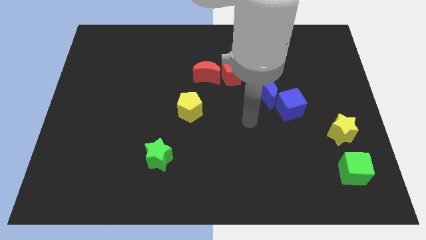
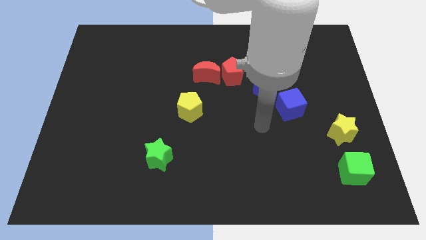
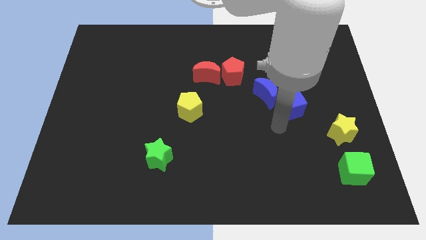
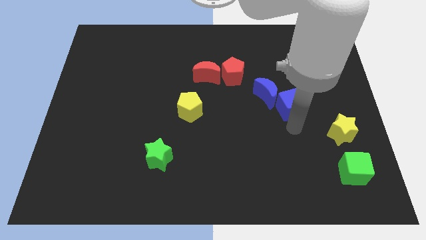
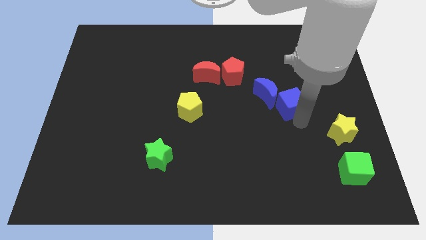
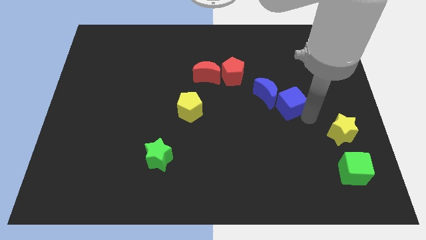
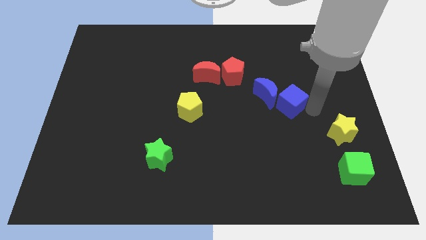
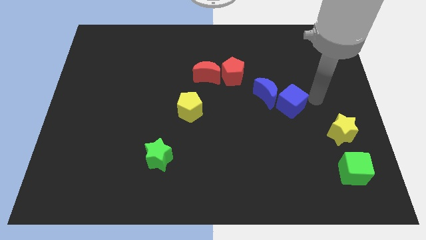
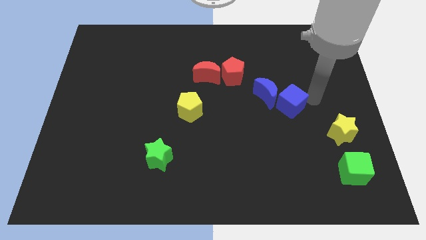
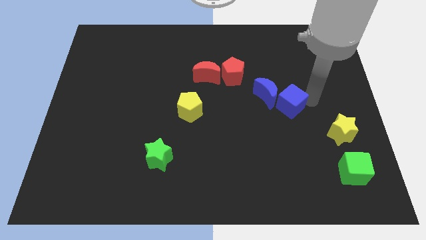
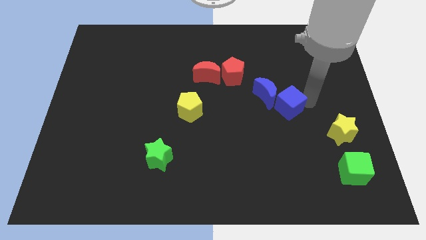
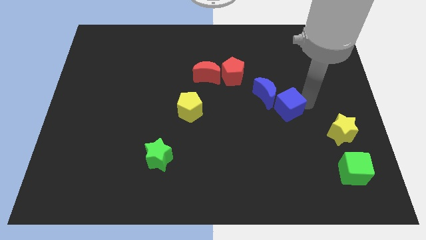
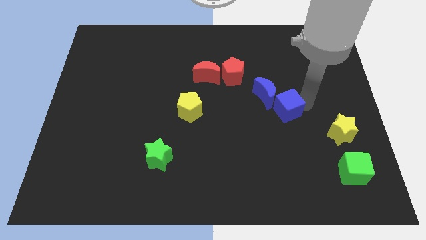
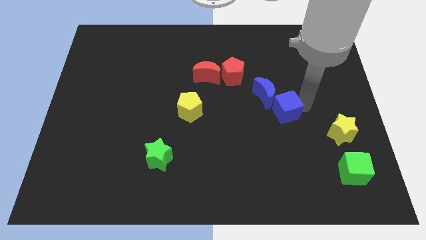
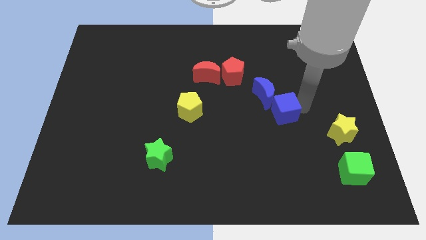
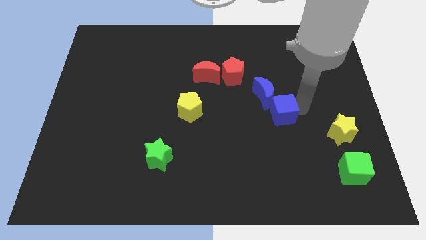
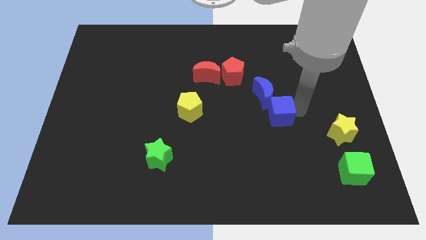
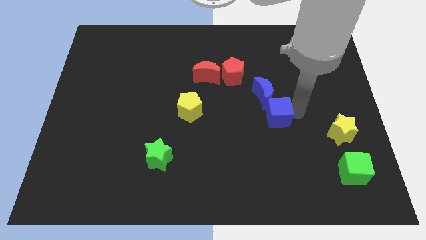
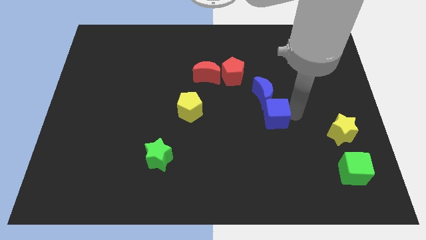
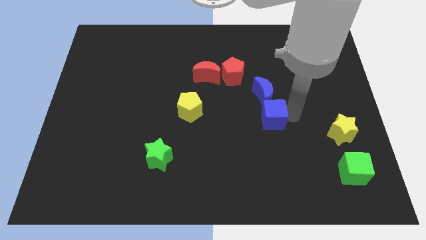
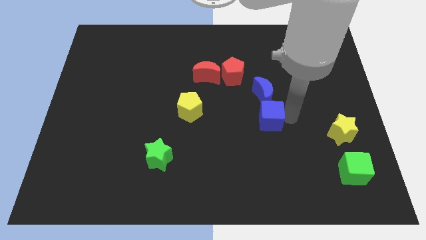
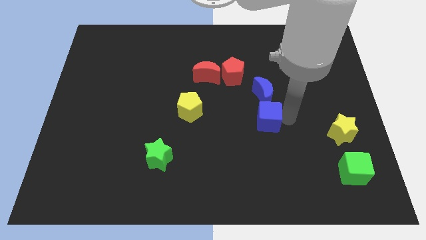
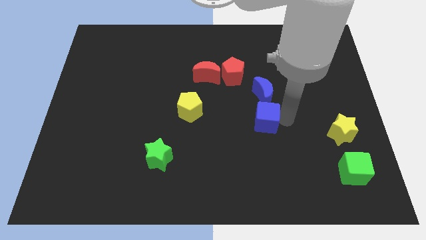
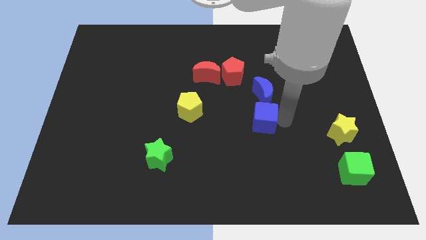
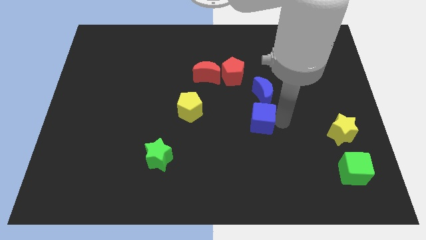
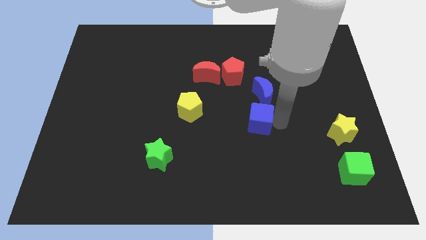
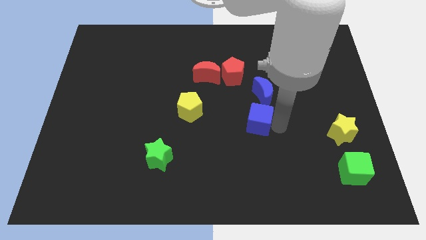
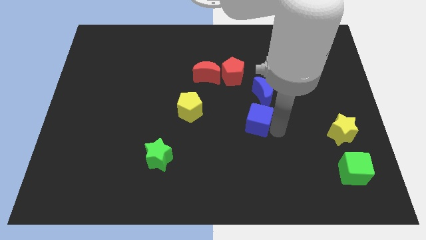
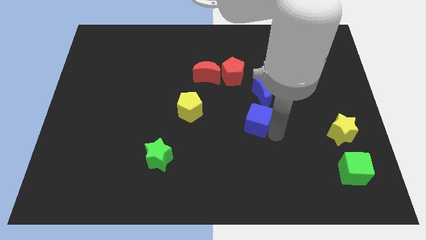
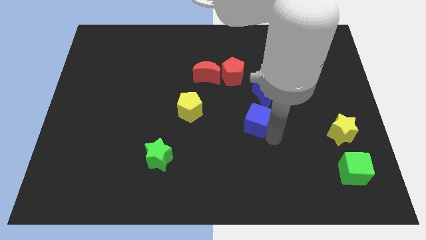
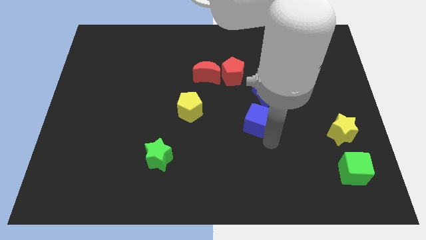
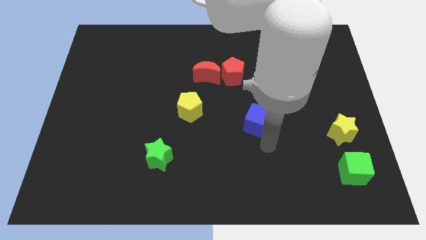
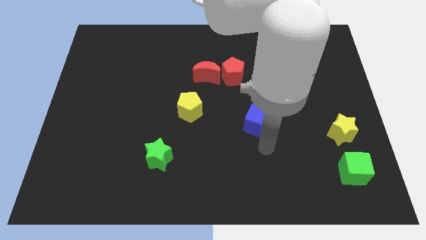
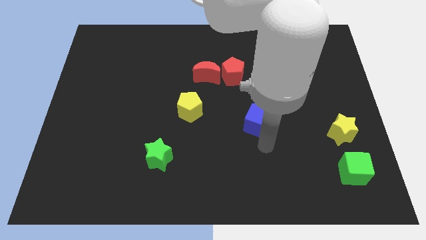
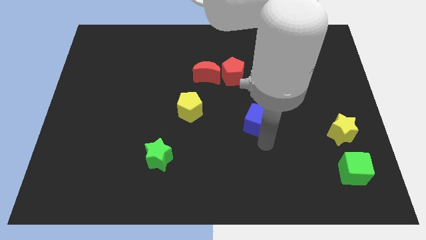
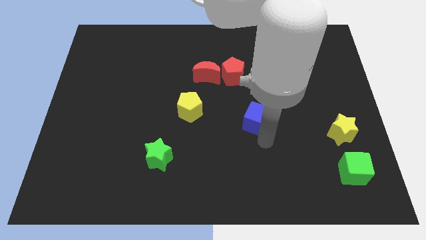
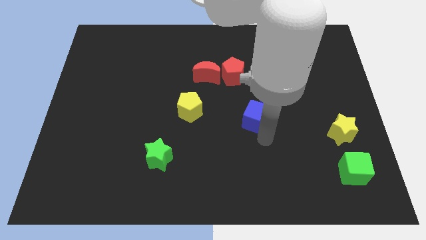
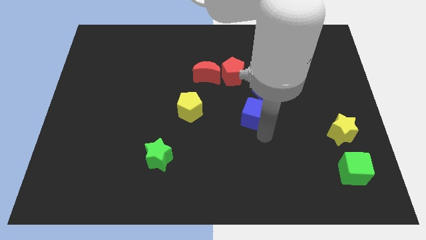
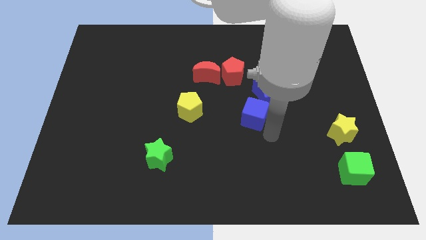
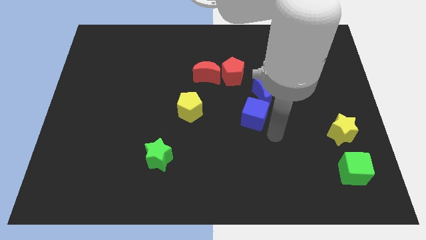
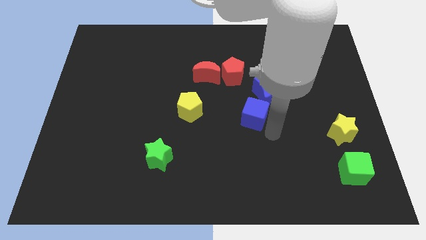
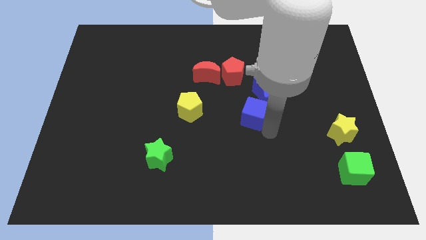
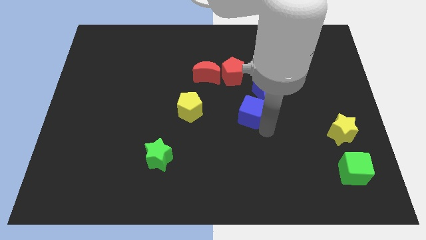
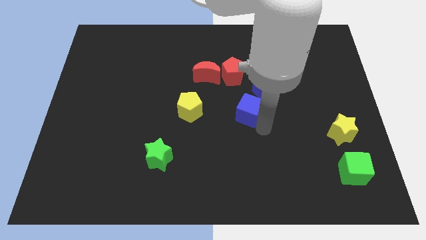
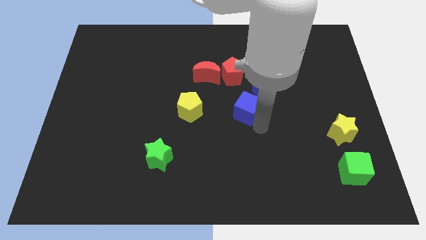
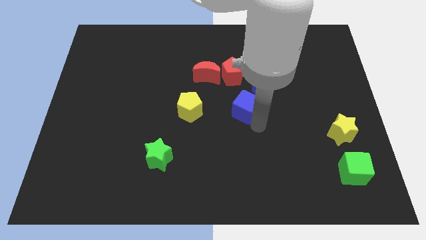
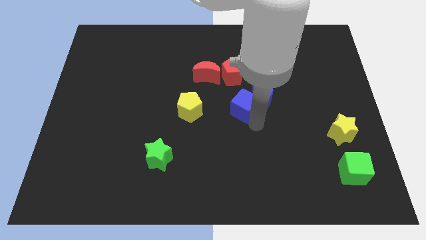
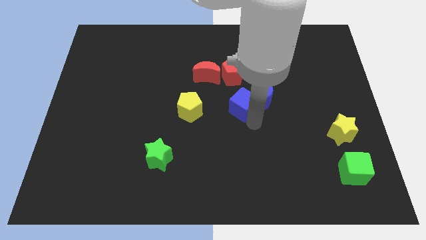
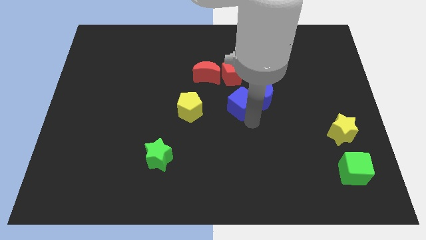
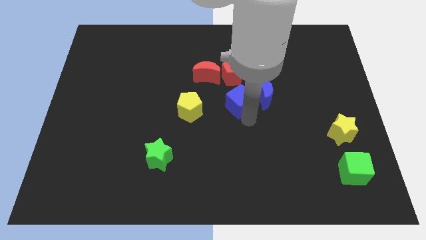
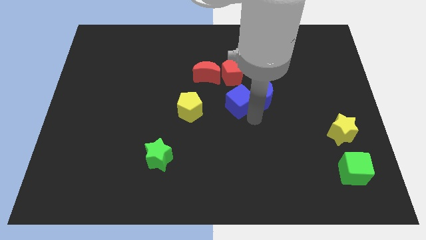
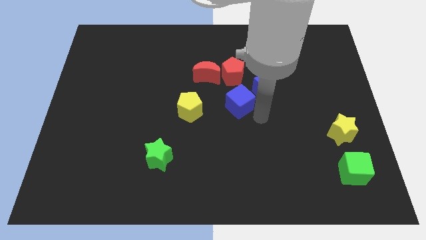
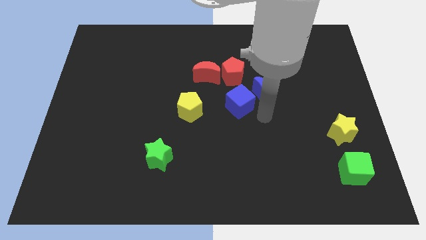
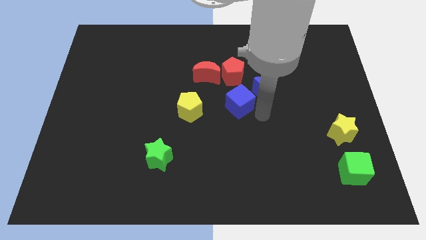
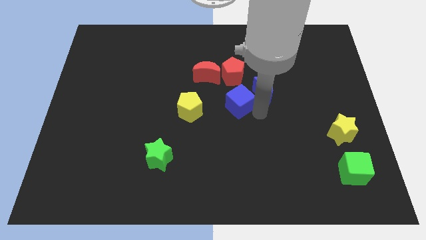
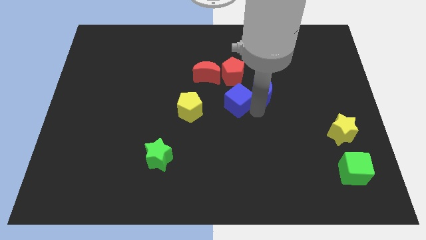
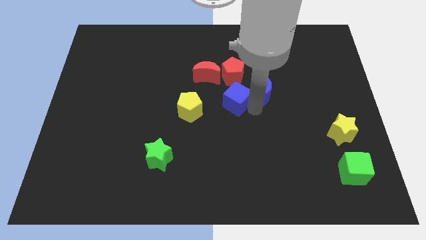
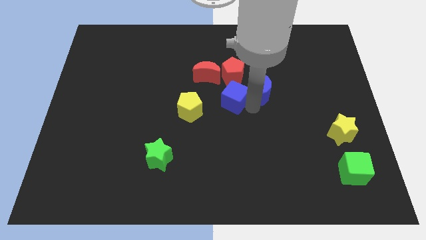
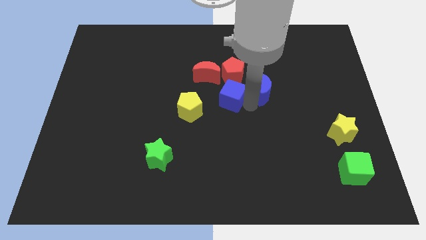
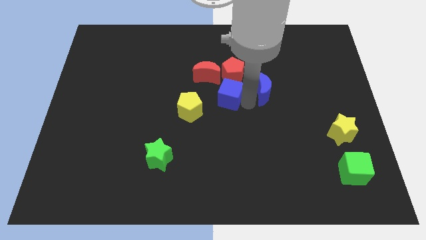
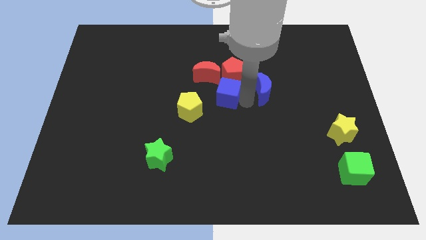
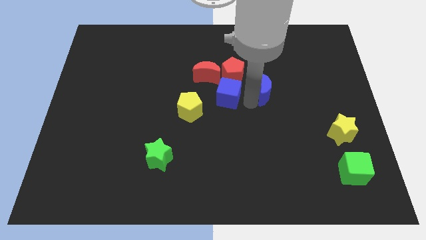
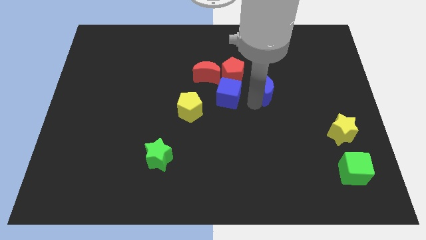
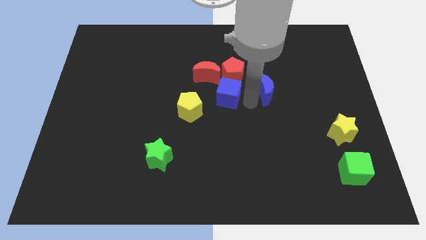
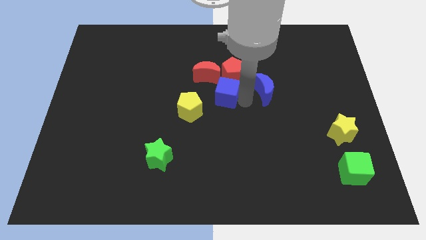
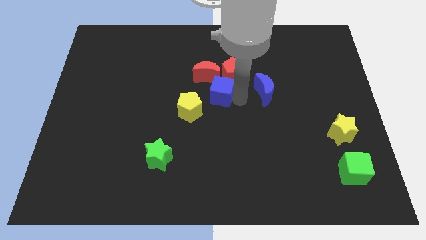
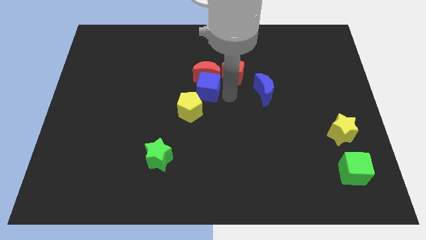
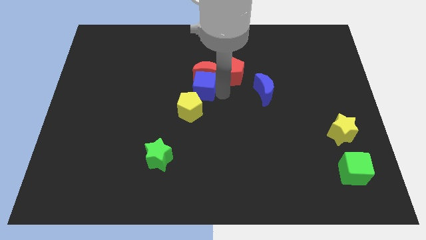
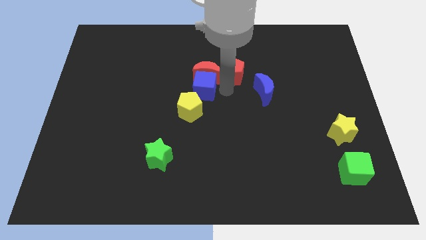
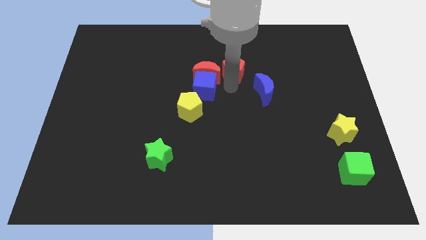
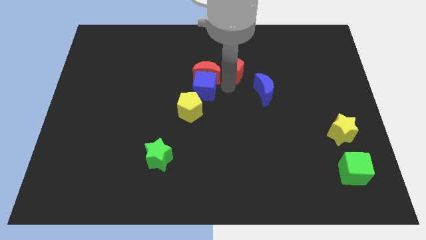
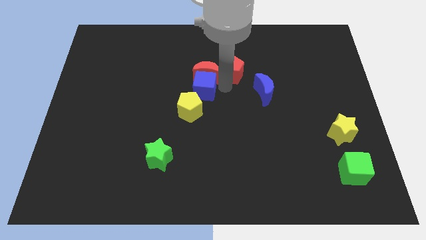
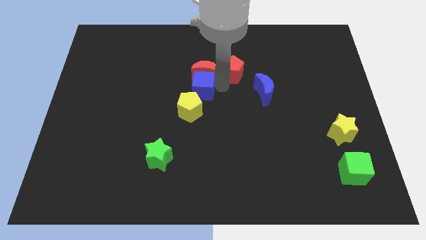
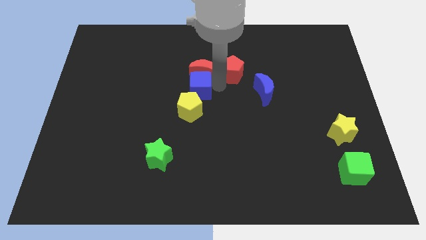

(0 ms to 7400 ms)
move the blue cube to the left

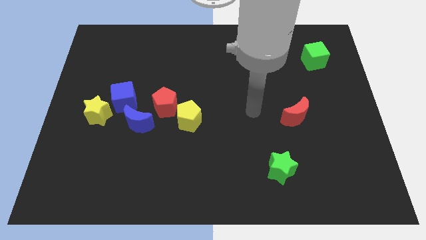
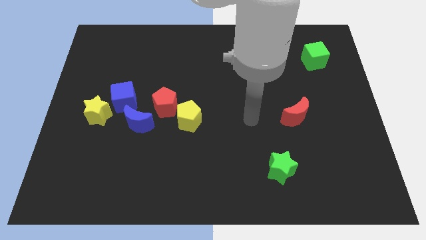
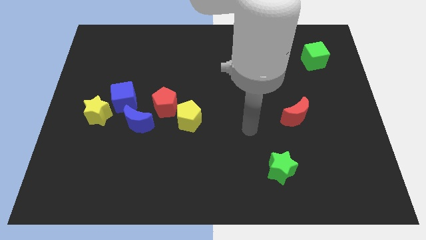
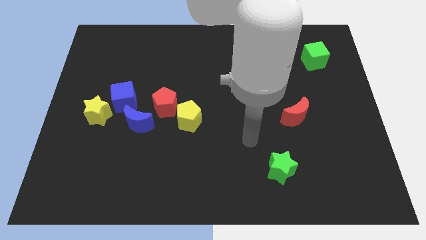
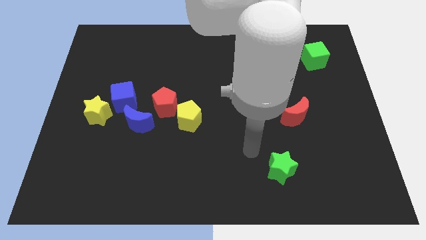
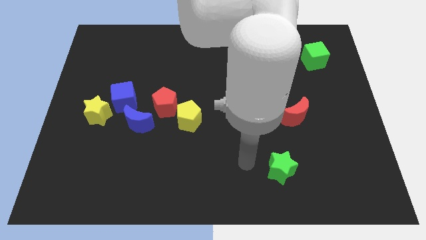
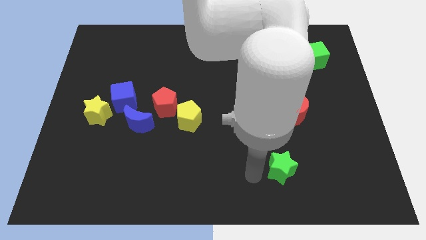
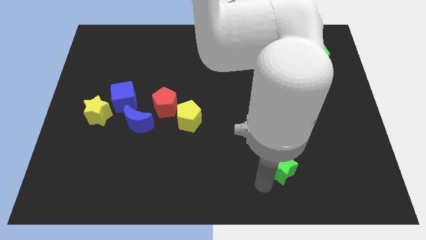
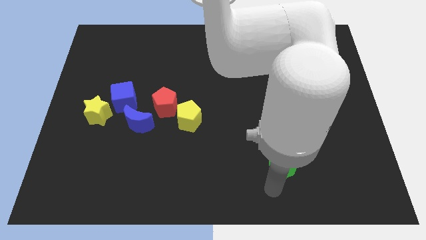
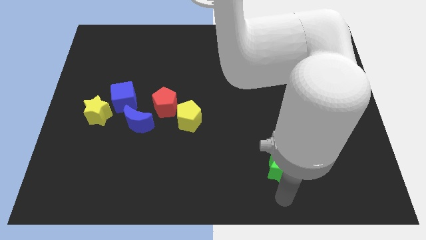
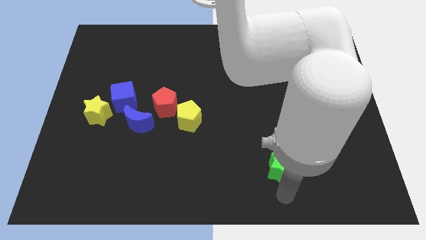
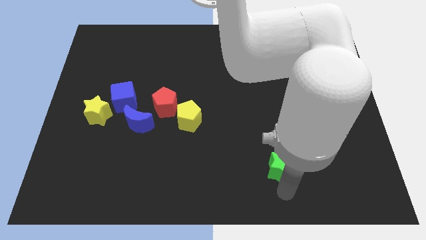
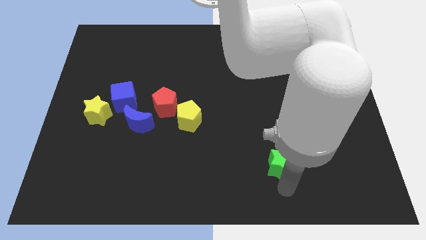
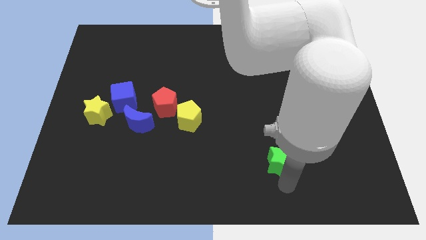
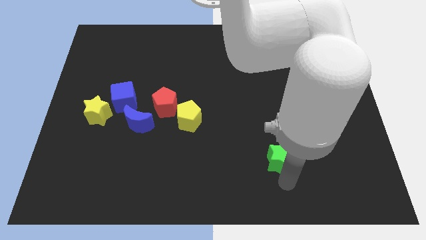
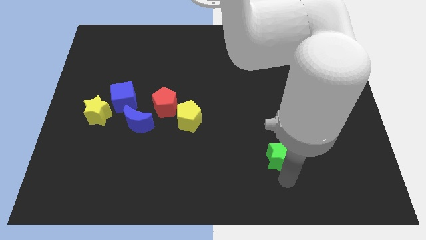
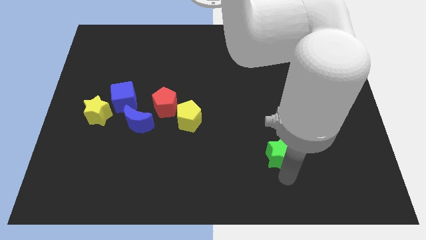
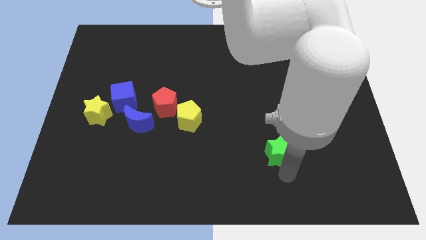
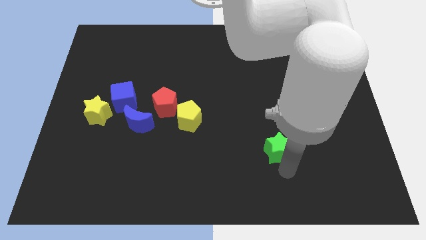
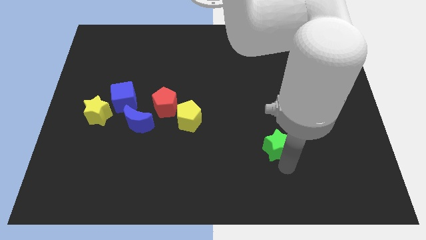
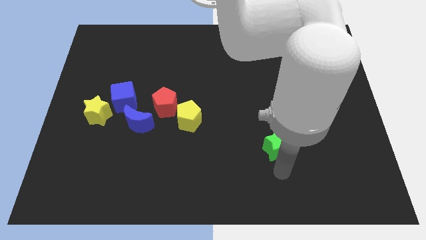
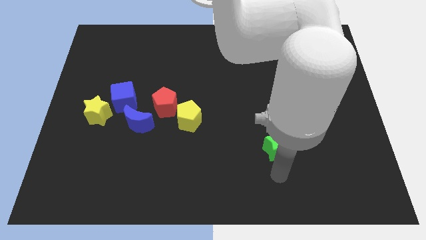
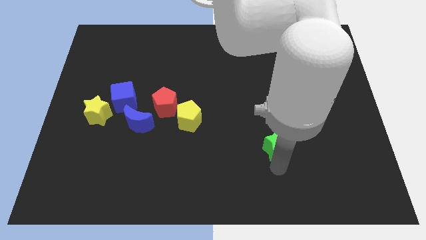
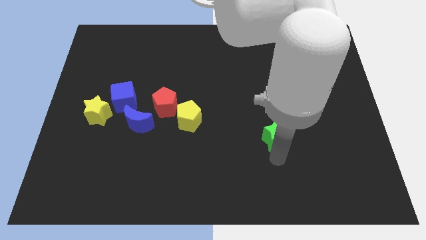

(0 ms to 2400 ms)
push the green star slightly upwards
